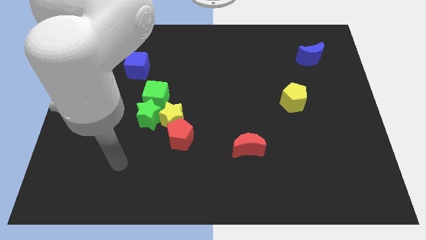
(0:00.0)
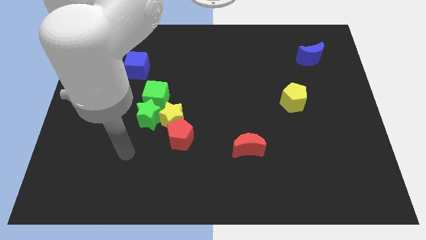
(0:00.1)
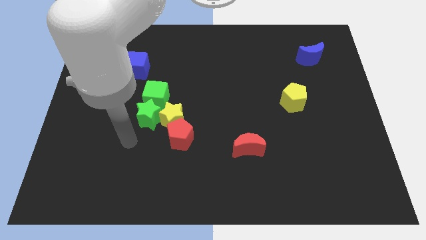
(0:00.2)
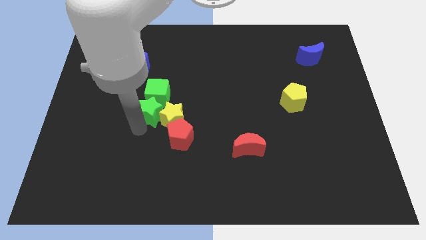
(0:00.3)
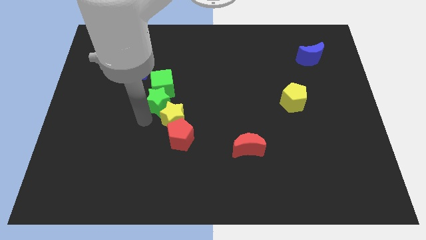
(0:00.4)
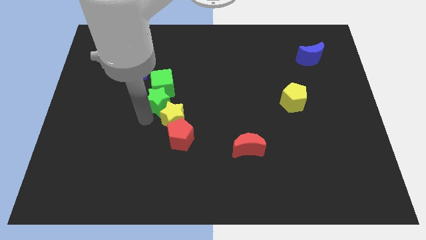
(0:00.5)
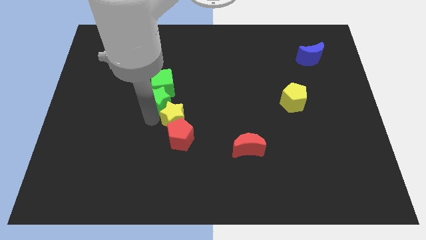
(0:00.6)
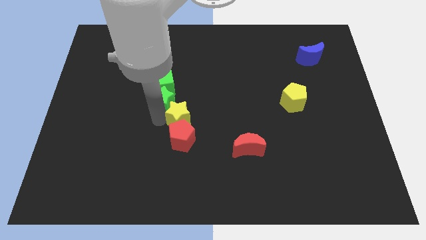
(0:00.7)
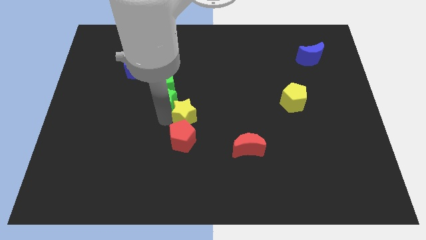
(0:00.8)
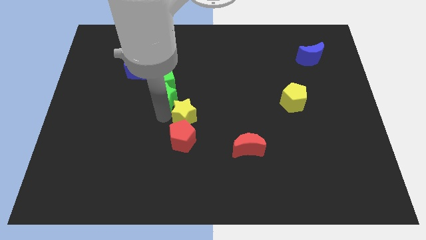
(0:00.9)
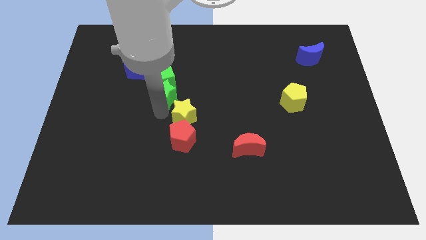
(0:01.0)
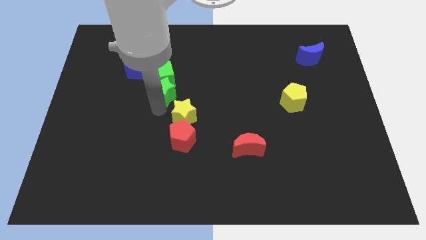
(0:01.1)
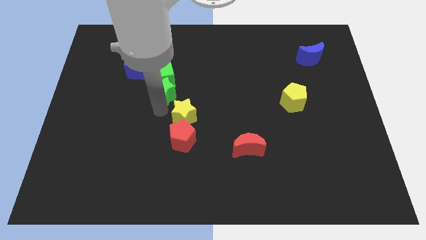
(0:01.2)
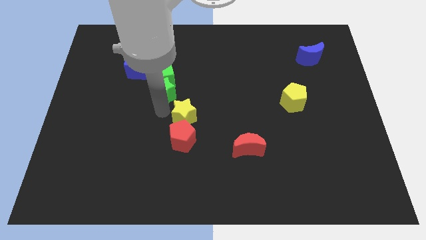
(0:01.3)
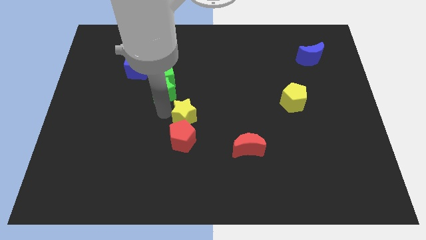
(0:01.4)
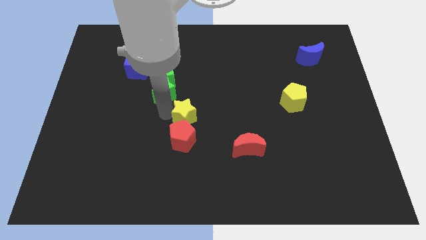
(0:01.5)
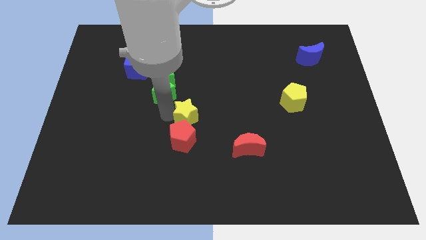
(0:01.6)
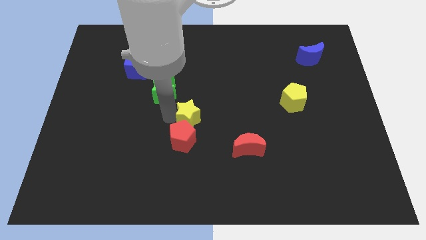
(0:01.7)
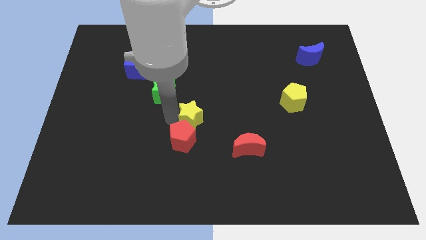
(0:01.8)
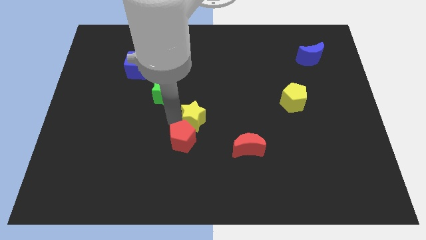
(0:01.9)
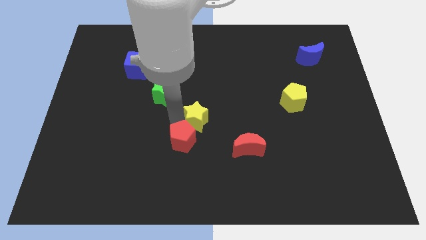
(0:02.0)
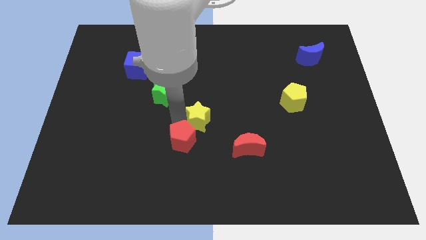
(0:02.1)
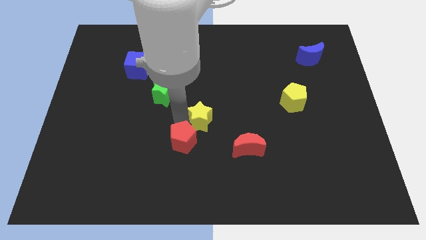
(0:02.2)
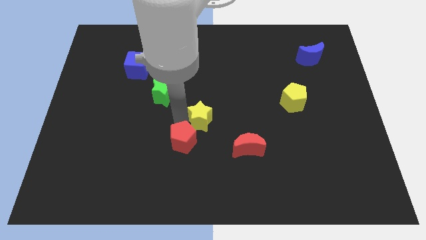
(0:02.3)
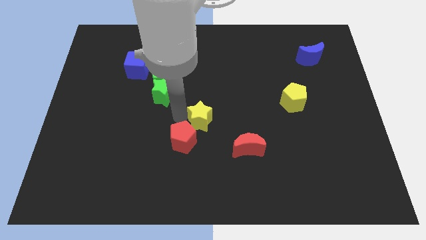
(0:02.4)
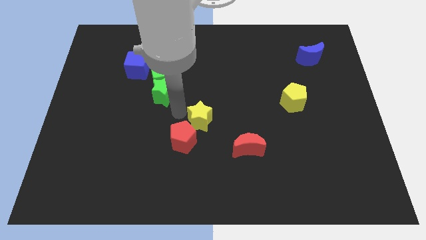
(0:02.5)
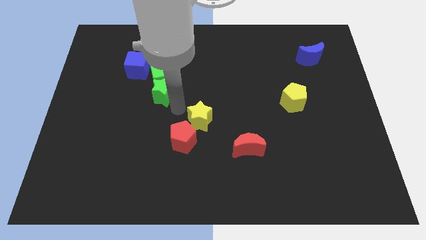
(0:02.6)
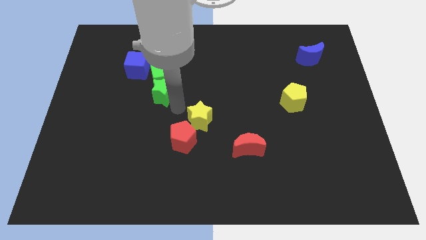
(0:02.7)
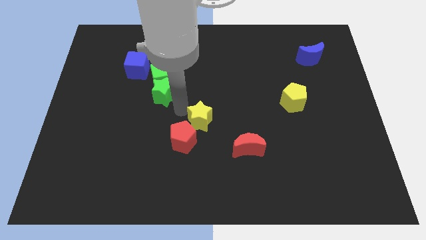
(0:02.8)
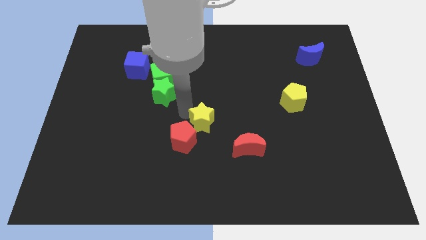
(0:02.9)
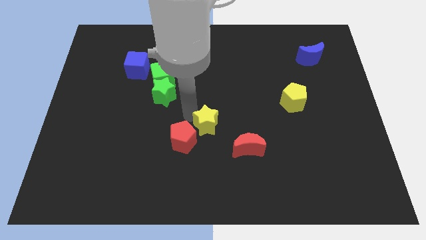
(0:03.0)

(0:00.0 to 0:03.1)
separate the yellow star from the red pentagon, green star, and green cube

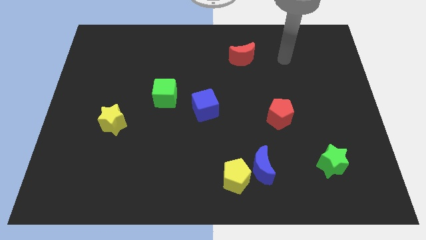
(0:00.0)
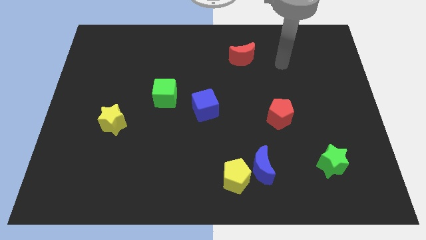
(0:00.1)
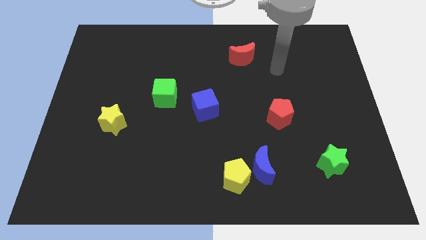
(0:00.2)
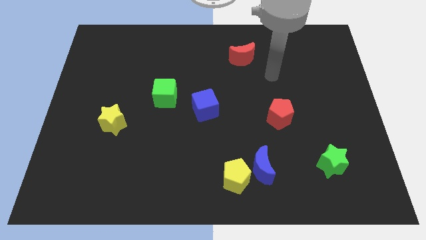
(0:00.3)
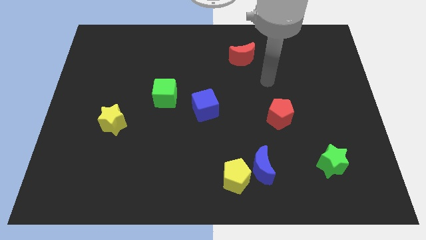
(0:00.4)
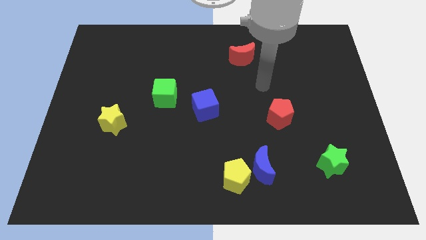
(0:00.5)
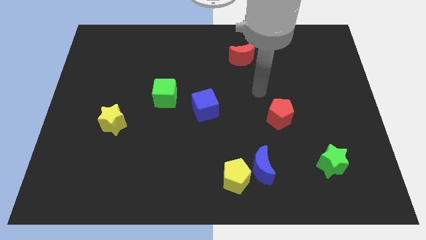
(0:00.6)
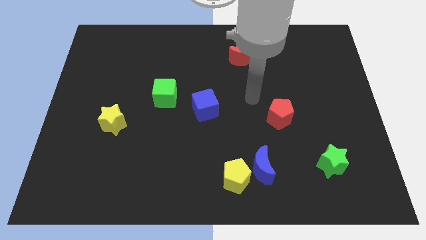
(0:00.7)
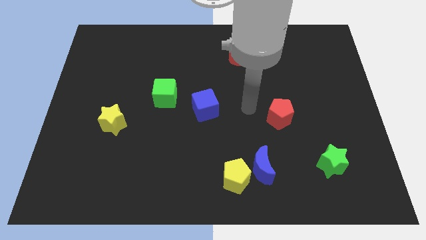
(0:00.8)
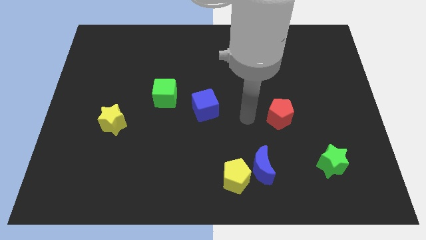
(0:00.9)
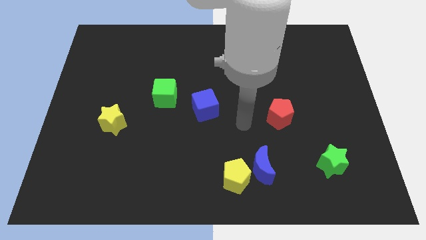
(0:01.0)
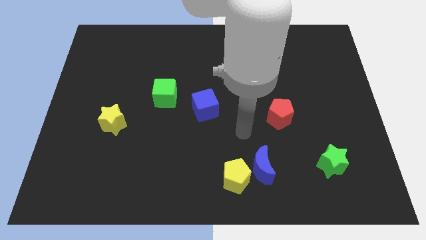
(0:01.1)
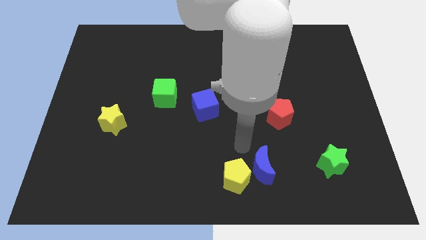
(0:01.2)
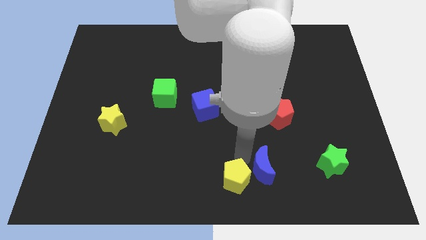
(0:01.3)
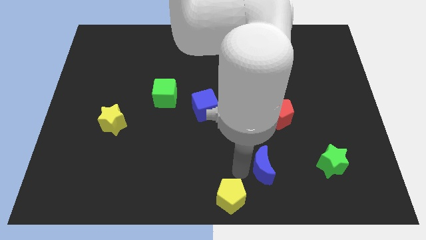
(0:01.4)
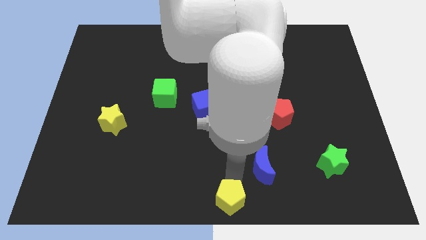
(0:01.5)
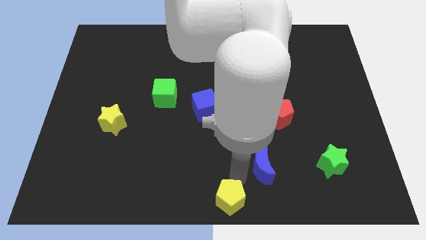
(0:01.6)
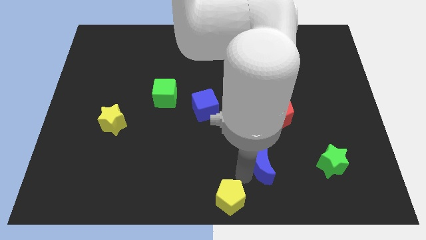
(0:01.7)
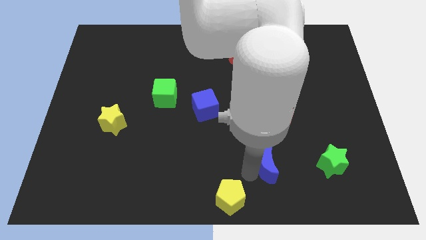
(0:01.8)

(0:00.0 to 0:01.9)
move the blue moon away from the yellow pentagon

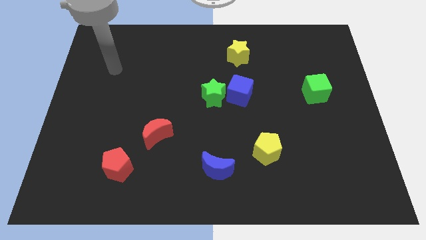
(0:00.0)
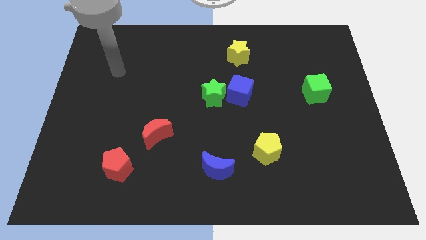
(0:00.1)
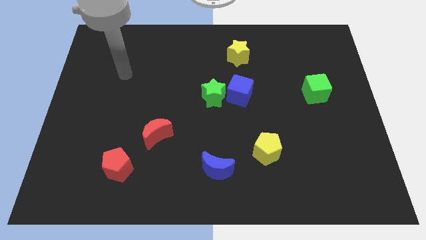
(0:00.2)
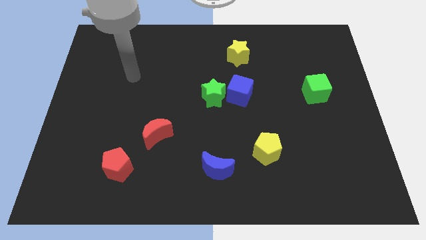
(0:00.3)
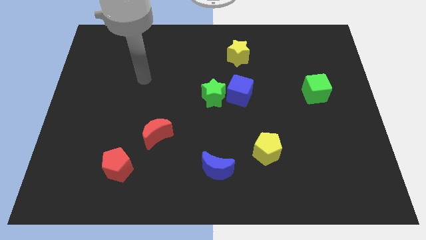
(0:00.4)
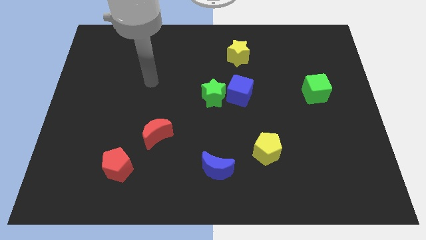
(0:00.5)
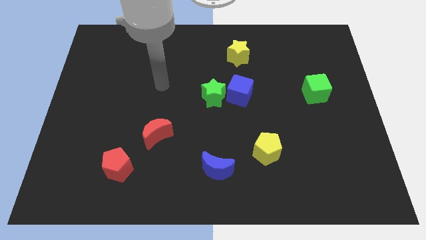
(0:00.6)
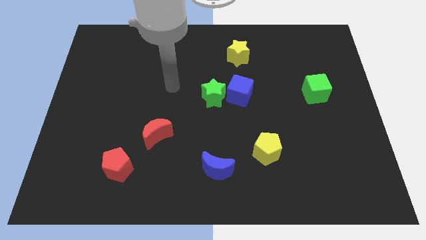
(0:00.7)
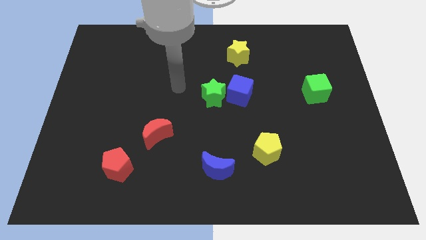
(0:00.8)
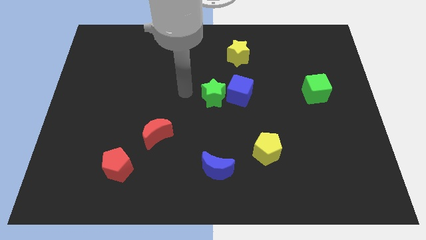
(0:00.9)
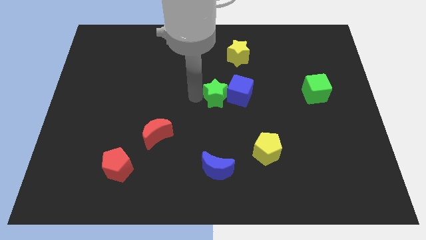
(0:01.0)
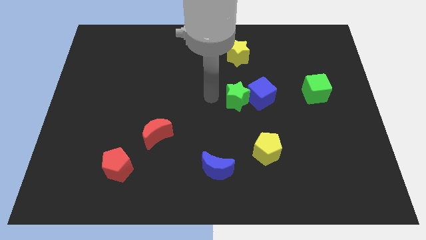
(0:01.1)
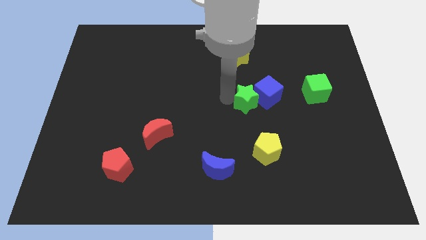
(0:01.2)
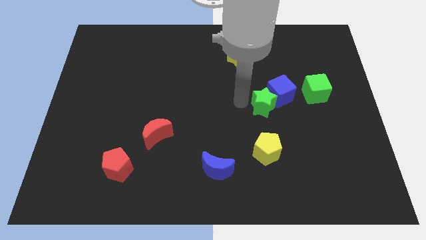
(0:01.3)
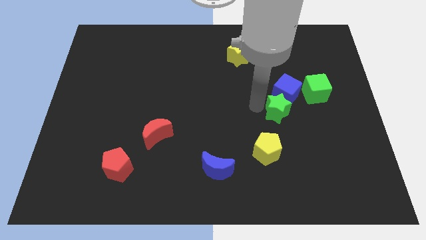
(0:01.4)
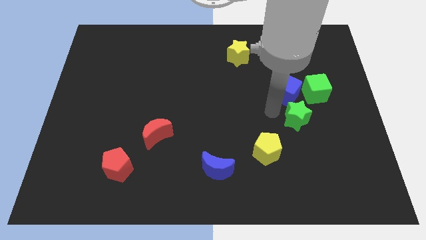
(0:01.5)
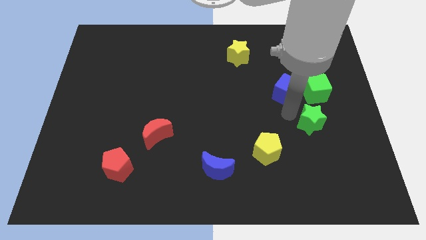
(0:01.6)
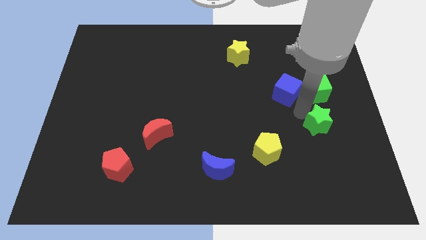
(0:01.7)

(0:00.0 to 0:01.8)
move the blue cube away from the green star

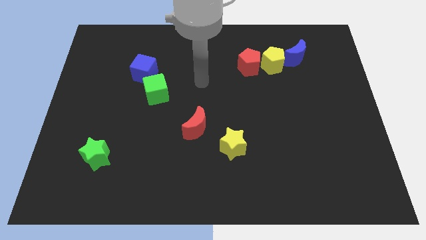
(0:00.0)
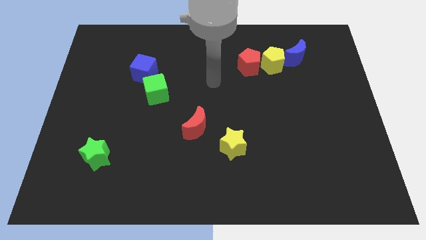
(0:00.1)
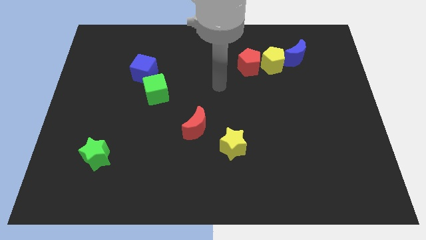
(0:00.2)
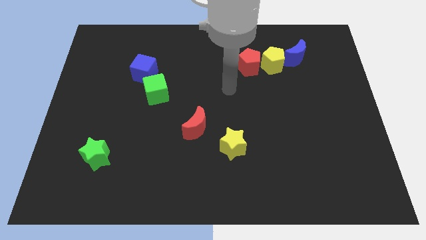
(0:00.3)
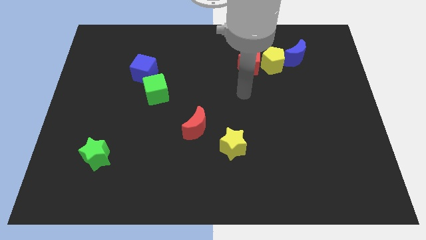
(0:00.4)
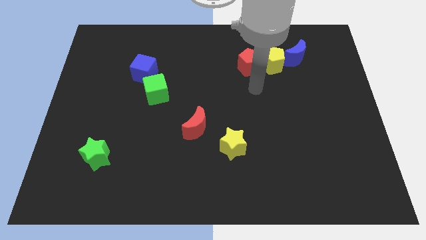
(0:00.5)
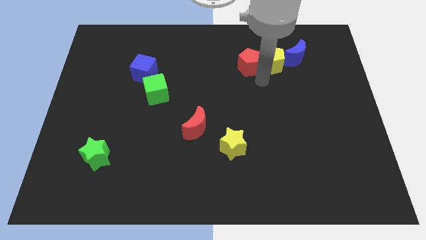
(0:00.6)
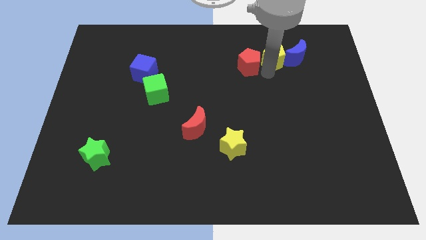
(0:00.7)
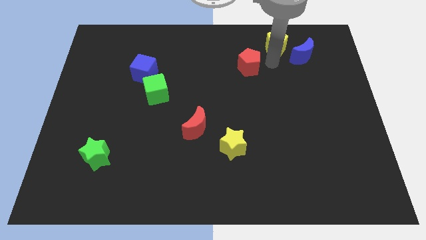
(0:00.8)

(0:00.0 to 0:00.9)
pull the red pentagon apart from the yellow pentagon

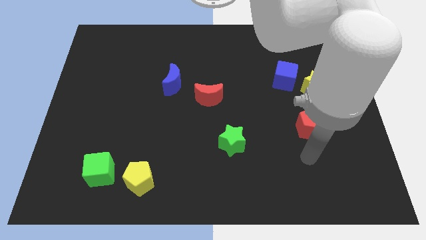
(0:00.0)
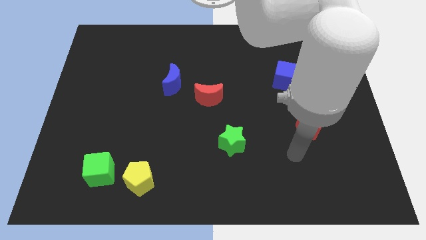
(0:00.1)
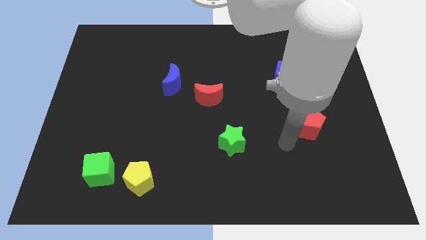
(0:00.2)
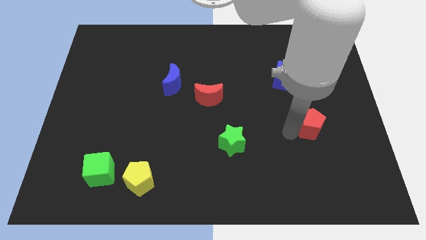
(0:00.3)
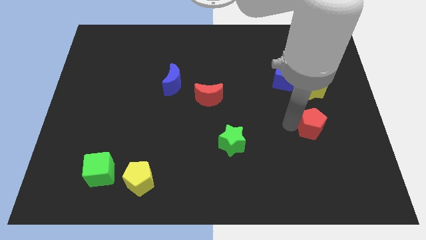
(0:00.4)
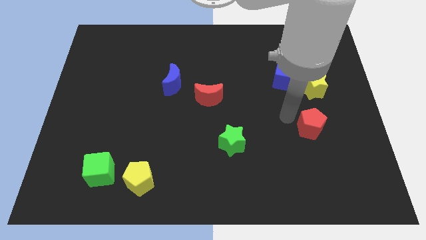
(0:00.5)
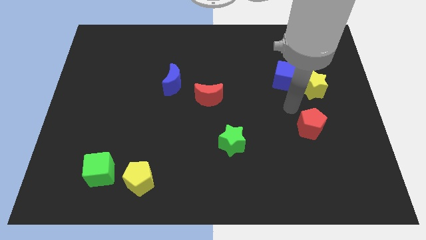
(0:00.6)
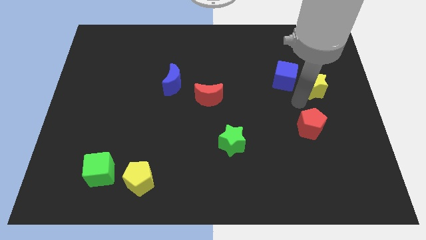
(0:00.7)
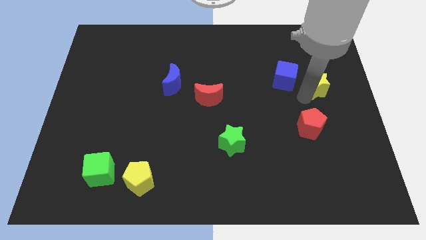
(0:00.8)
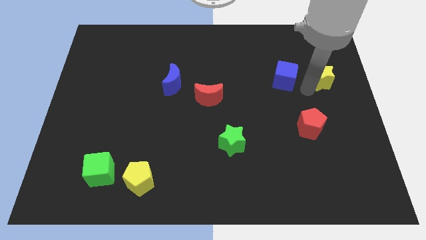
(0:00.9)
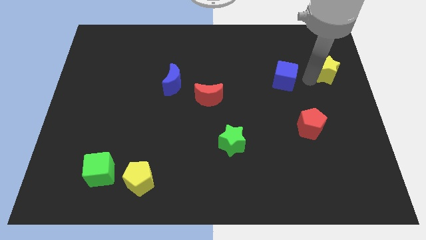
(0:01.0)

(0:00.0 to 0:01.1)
move the blue cube away from the yellow star

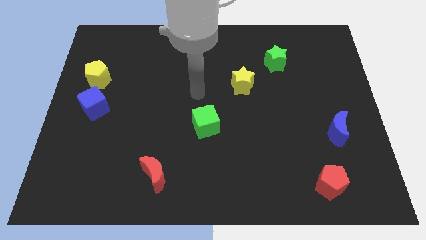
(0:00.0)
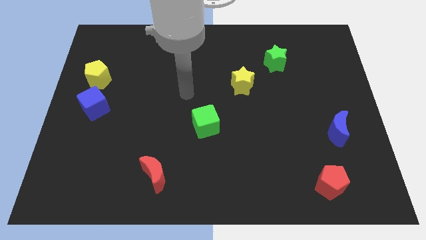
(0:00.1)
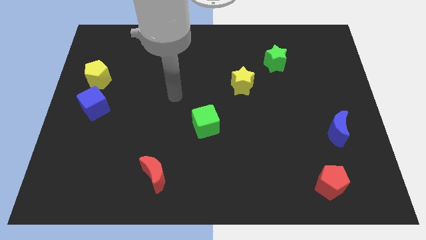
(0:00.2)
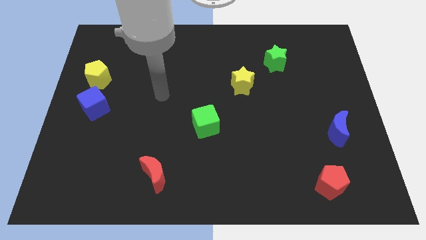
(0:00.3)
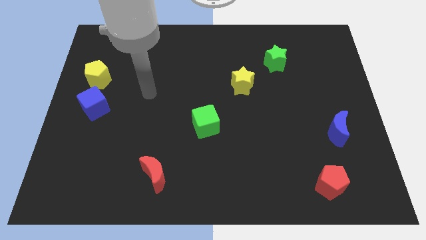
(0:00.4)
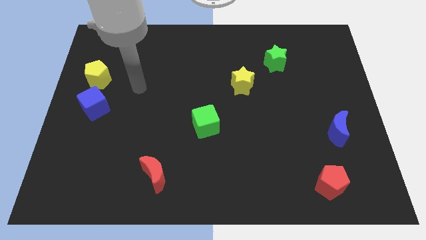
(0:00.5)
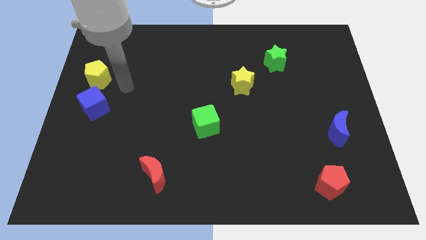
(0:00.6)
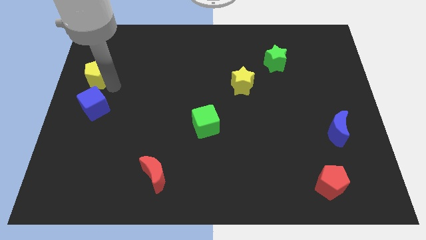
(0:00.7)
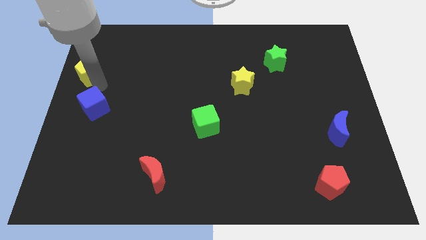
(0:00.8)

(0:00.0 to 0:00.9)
move the blue cube away from the yellow pentagon
